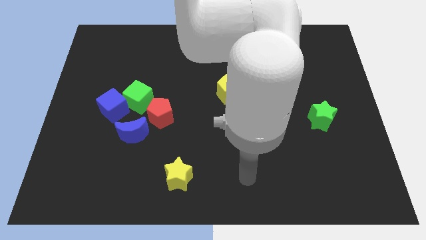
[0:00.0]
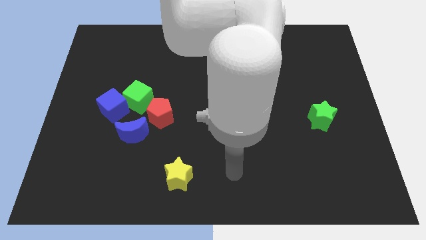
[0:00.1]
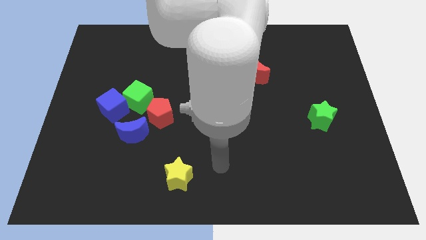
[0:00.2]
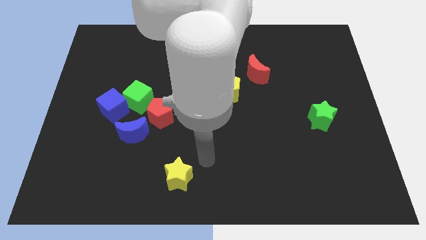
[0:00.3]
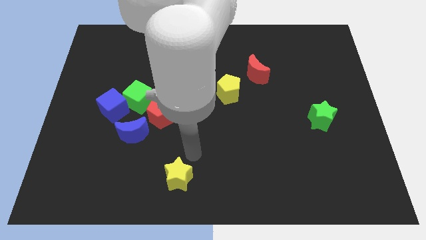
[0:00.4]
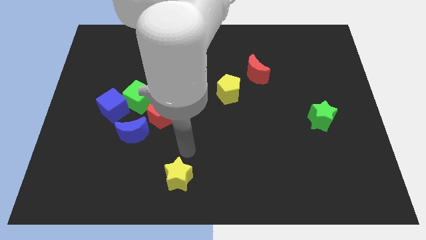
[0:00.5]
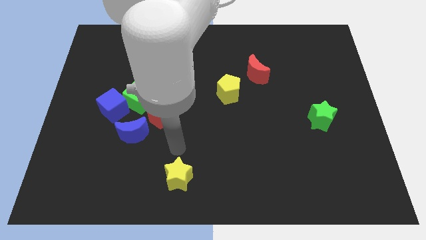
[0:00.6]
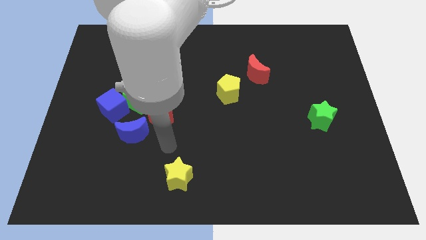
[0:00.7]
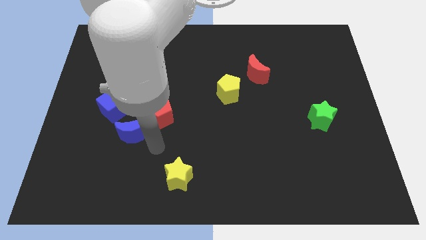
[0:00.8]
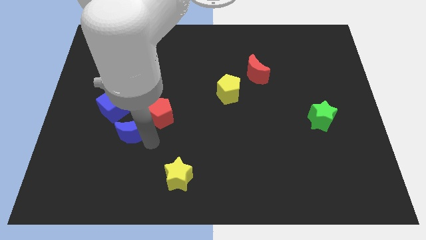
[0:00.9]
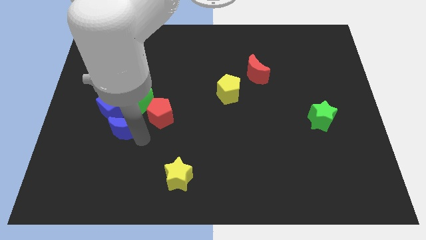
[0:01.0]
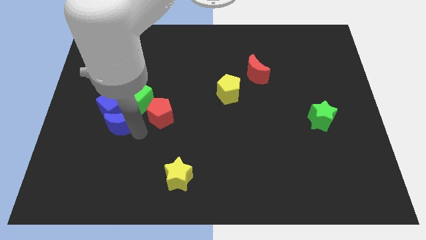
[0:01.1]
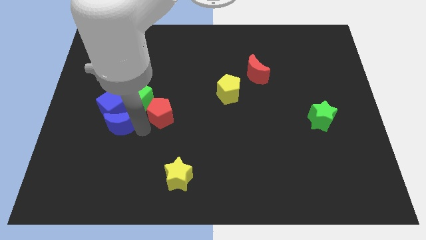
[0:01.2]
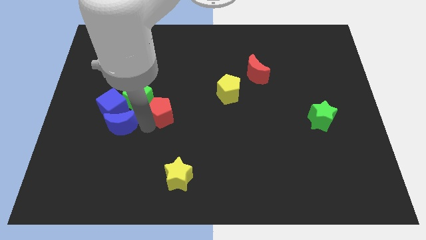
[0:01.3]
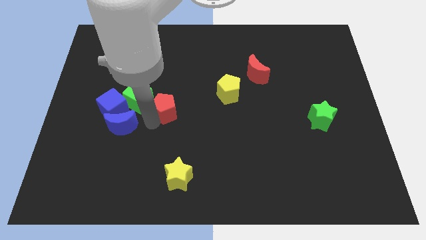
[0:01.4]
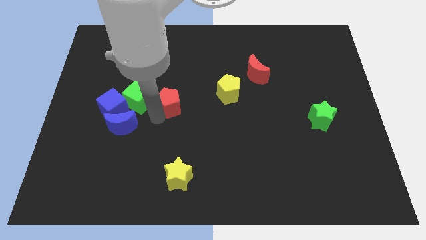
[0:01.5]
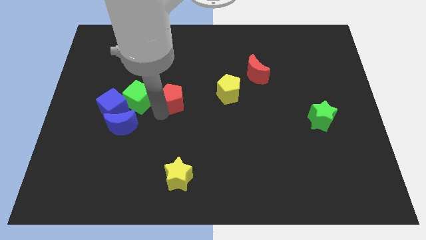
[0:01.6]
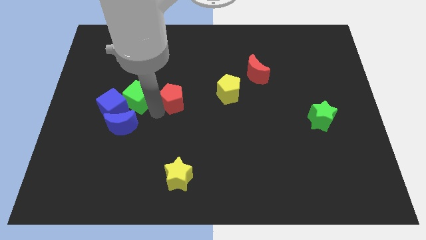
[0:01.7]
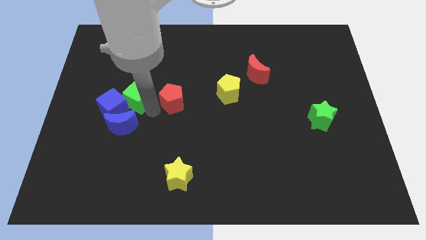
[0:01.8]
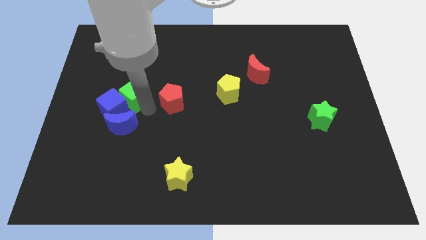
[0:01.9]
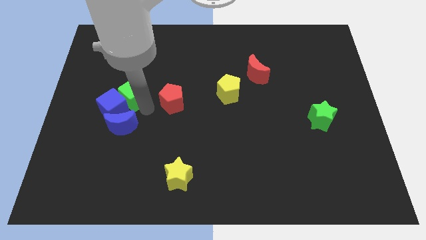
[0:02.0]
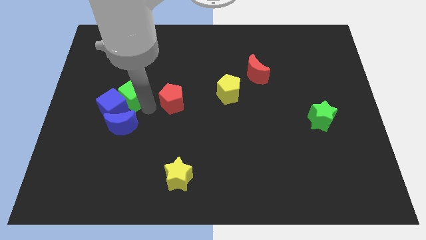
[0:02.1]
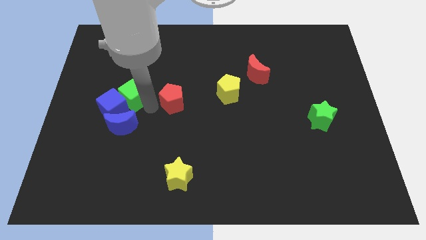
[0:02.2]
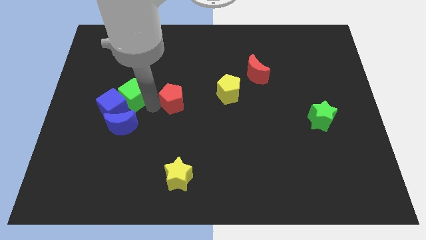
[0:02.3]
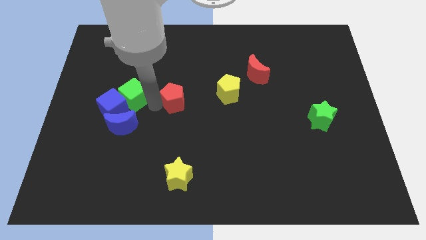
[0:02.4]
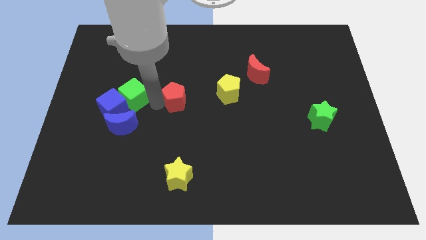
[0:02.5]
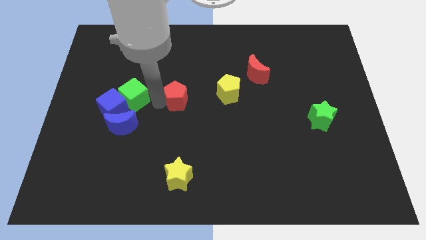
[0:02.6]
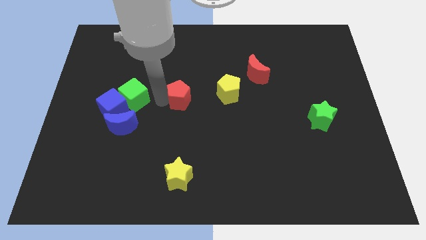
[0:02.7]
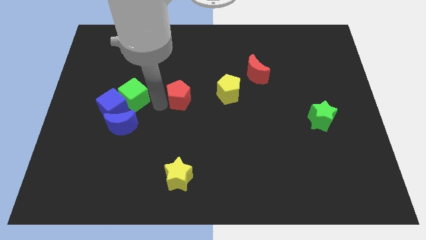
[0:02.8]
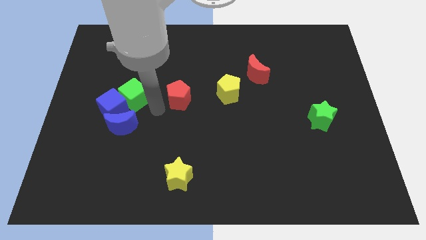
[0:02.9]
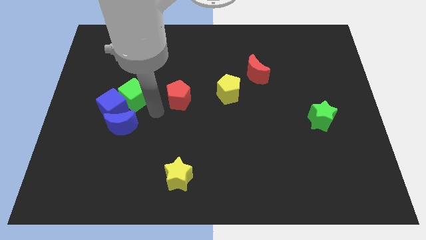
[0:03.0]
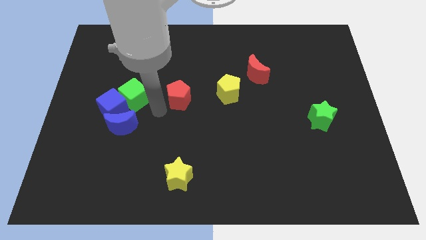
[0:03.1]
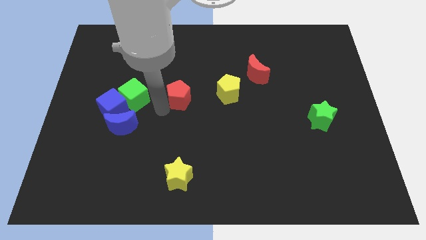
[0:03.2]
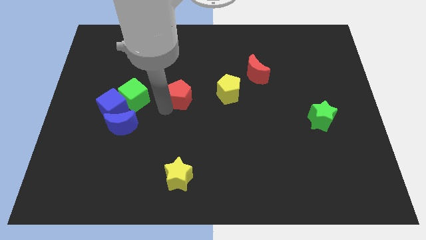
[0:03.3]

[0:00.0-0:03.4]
push the red pentagon up and to the right a little bit

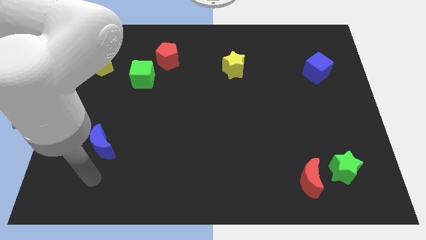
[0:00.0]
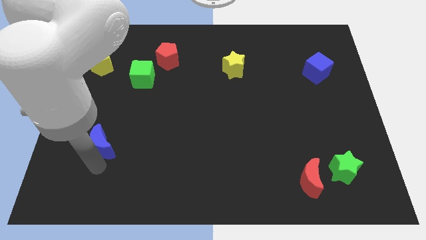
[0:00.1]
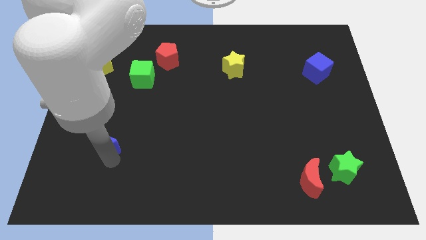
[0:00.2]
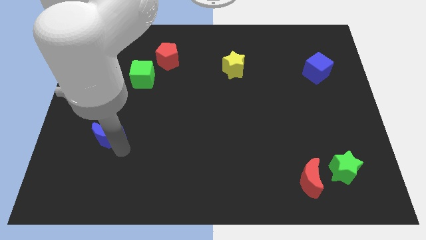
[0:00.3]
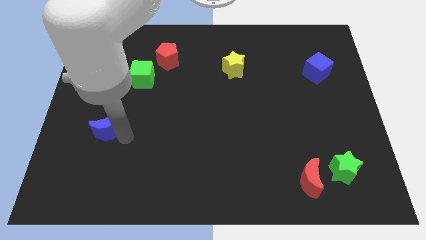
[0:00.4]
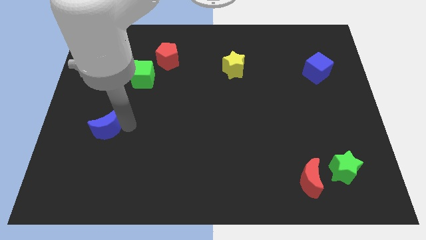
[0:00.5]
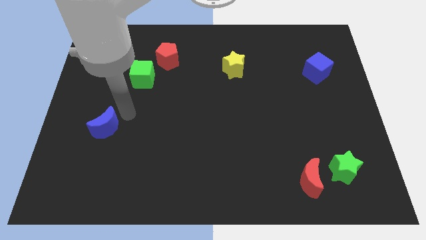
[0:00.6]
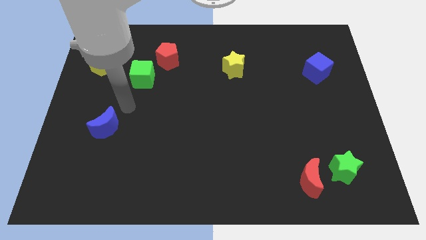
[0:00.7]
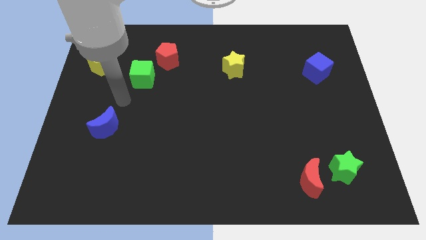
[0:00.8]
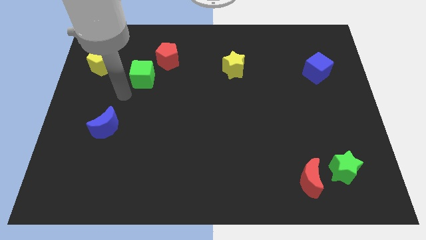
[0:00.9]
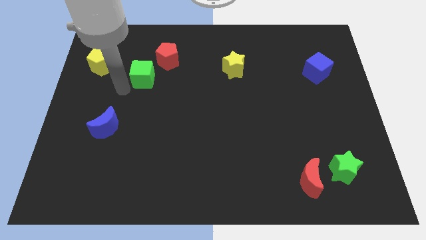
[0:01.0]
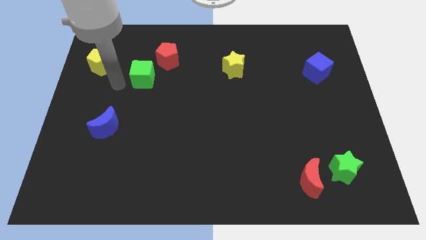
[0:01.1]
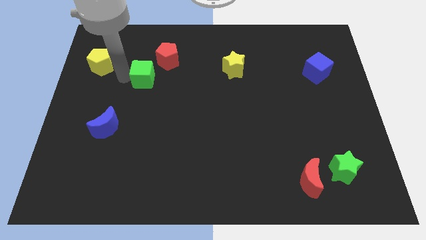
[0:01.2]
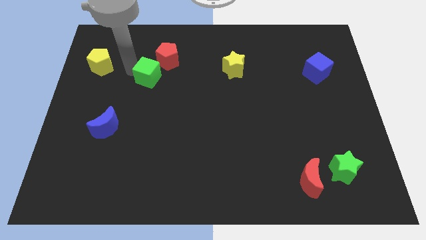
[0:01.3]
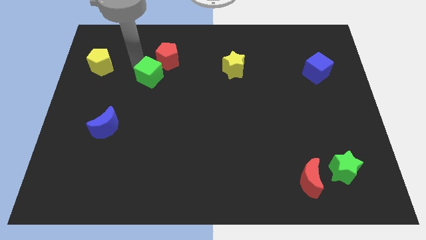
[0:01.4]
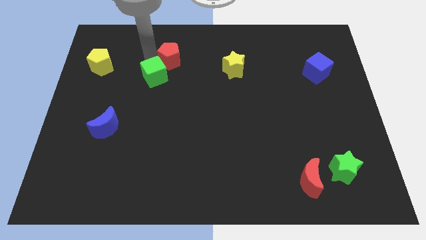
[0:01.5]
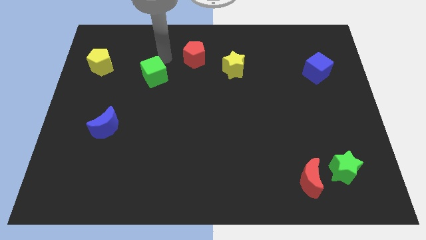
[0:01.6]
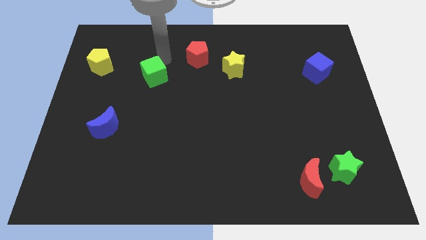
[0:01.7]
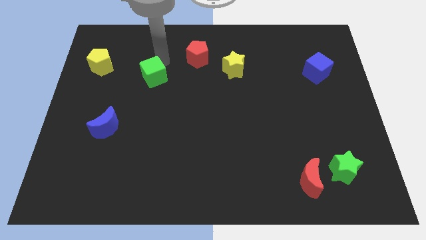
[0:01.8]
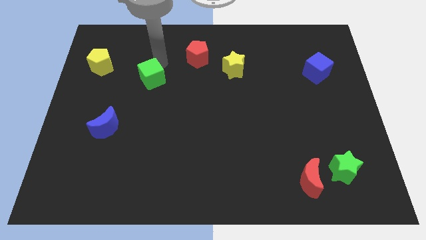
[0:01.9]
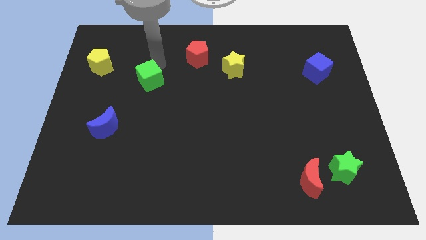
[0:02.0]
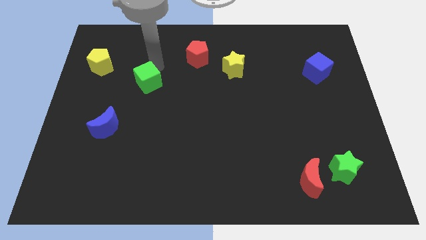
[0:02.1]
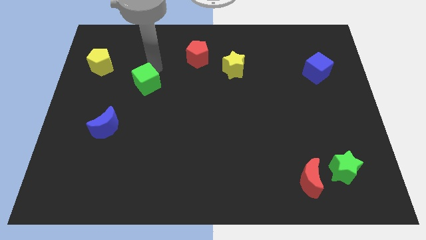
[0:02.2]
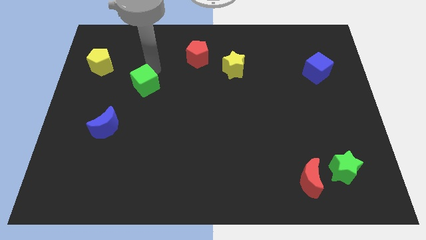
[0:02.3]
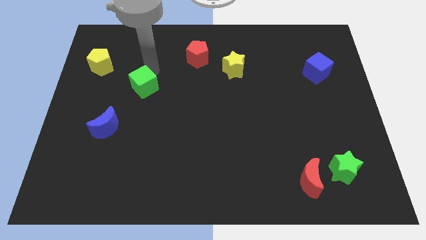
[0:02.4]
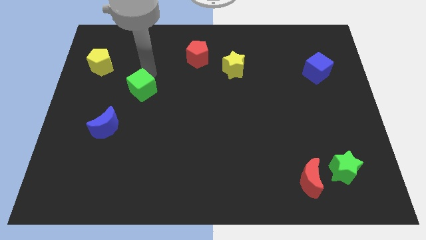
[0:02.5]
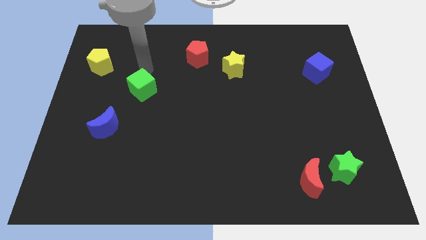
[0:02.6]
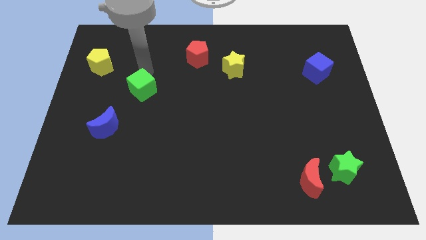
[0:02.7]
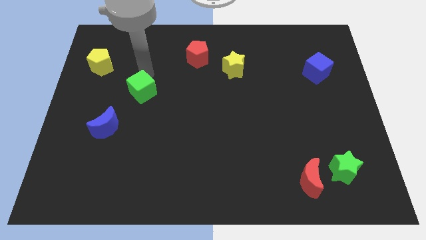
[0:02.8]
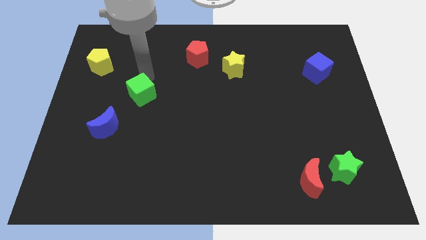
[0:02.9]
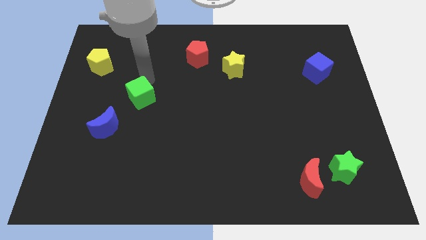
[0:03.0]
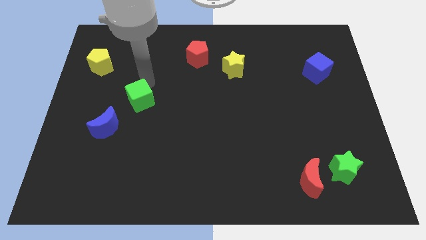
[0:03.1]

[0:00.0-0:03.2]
push the green cube somewhat downwards

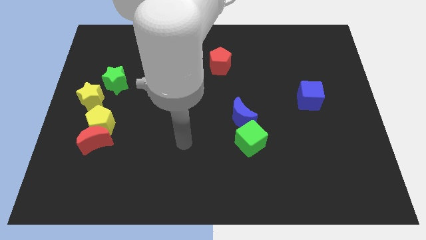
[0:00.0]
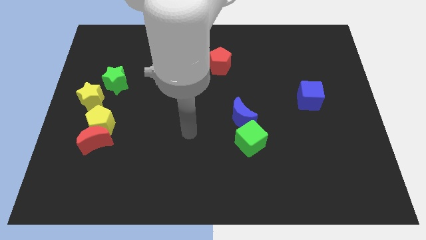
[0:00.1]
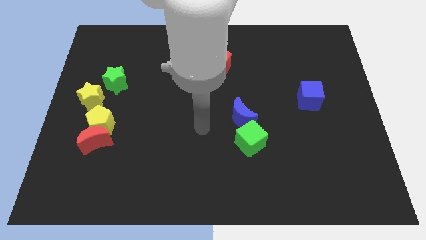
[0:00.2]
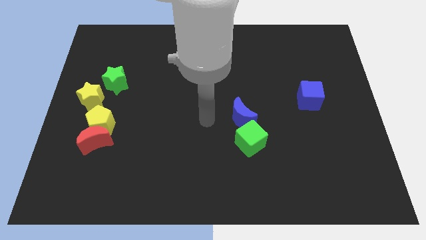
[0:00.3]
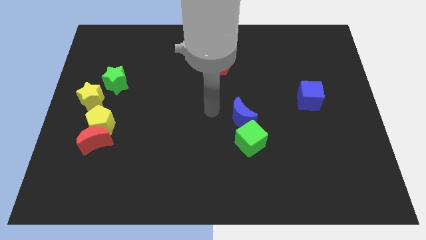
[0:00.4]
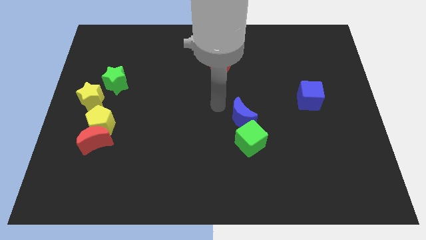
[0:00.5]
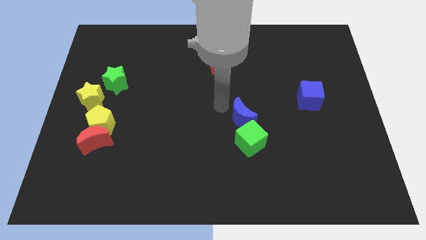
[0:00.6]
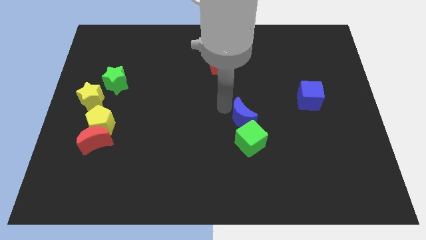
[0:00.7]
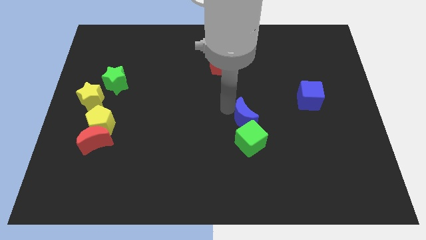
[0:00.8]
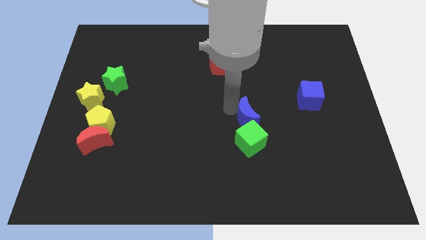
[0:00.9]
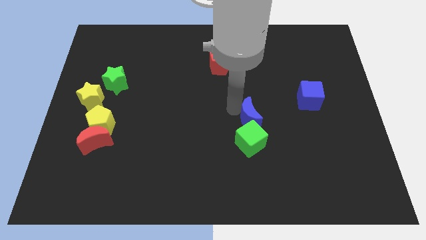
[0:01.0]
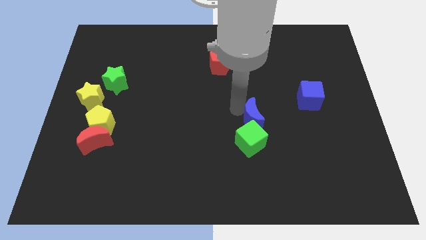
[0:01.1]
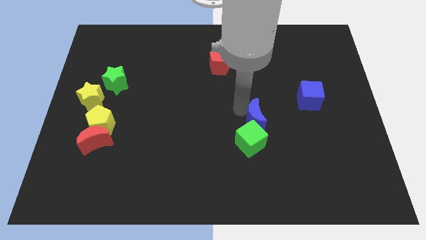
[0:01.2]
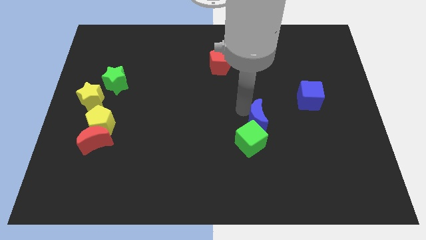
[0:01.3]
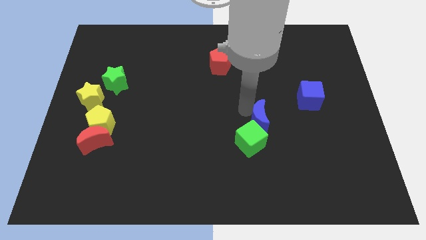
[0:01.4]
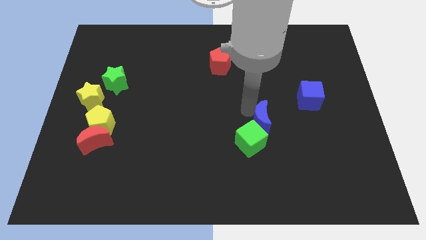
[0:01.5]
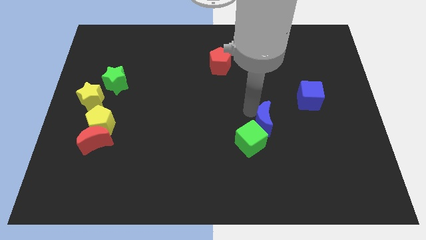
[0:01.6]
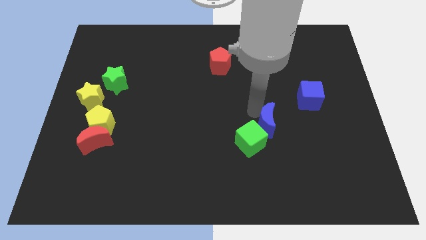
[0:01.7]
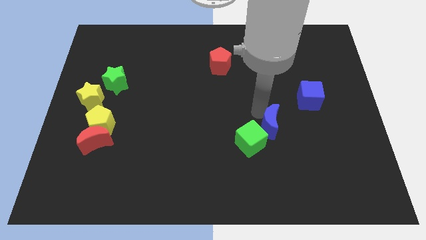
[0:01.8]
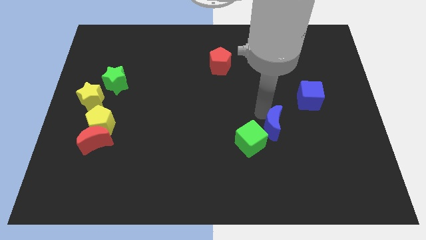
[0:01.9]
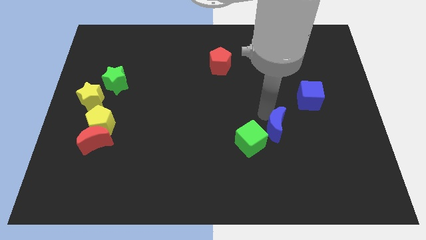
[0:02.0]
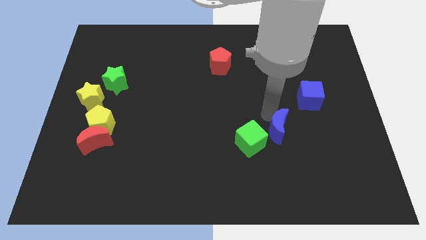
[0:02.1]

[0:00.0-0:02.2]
push the blue moon somewhat down and to the right
